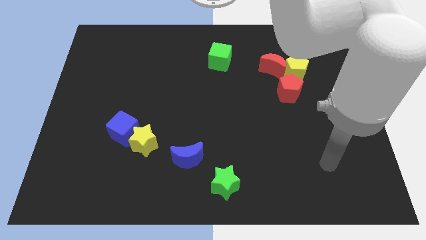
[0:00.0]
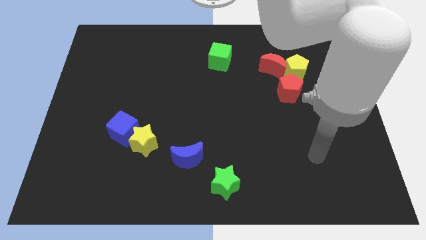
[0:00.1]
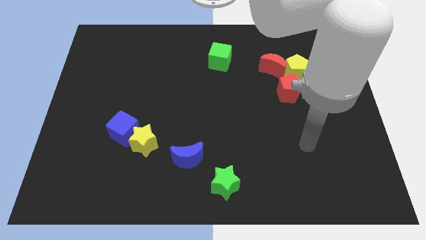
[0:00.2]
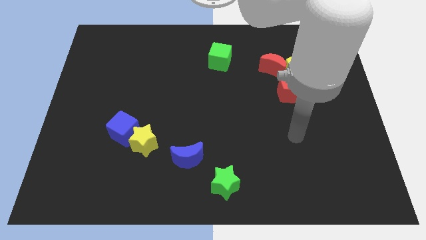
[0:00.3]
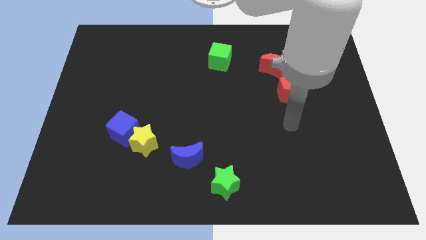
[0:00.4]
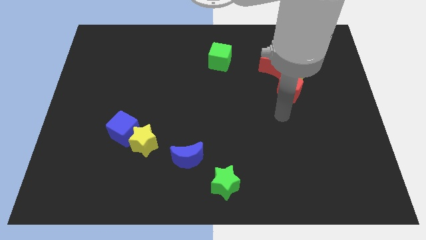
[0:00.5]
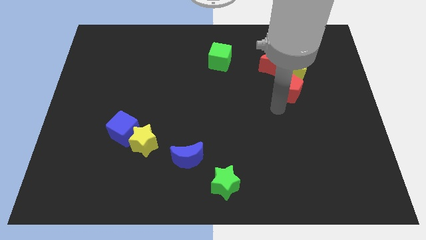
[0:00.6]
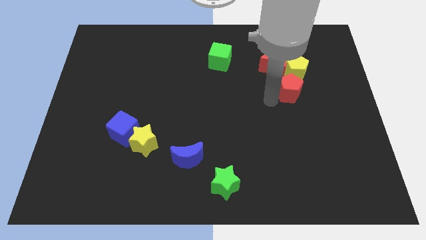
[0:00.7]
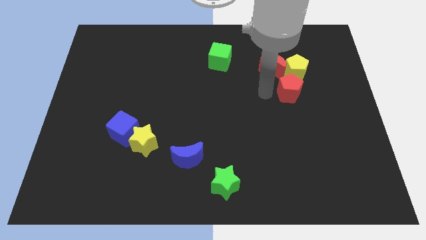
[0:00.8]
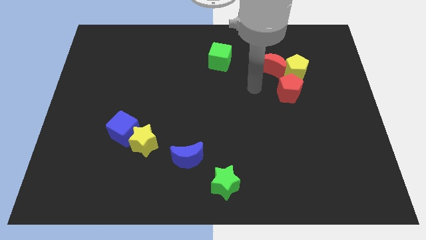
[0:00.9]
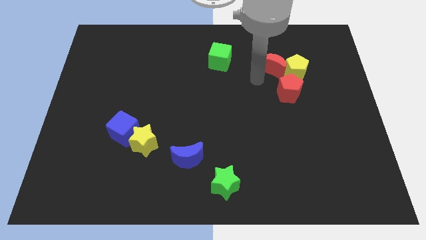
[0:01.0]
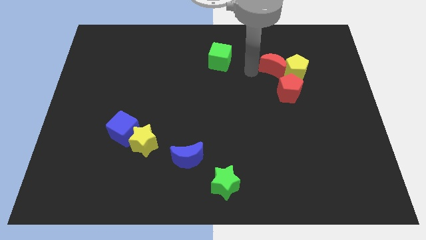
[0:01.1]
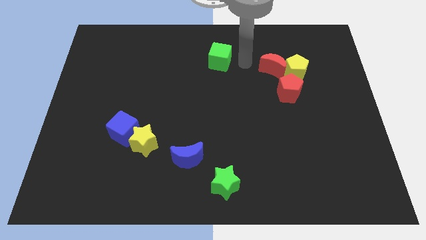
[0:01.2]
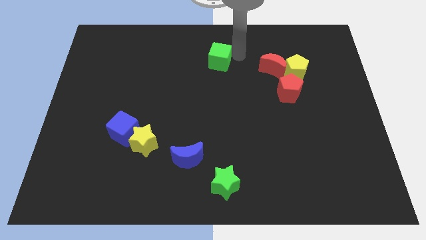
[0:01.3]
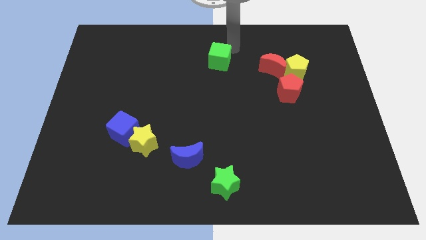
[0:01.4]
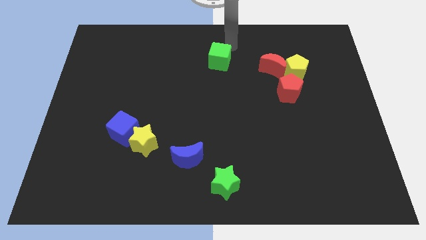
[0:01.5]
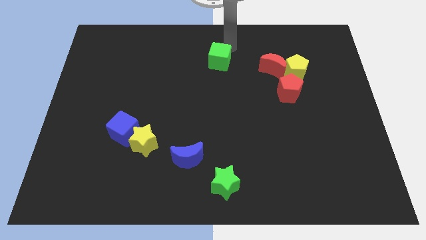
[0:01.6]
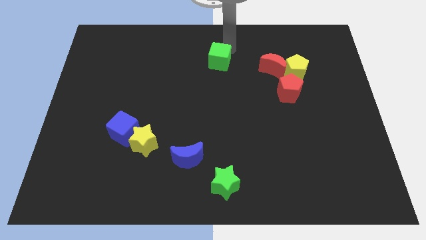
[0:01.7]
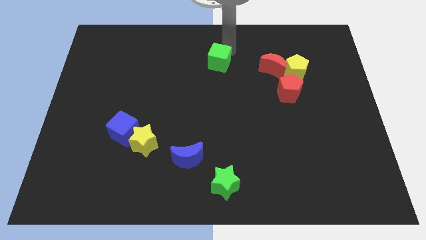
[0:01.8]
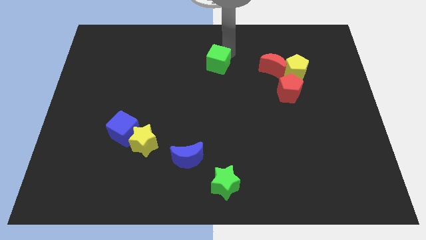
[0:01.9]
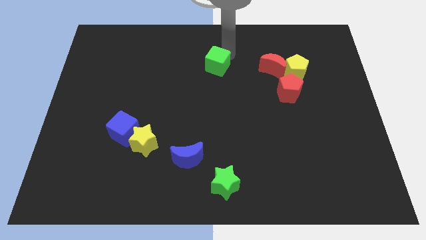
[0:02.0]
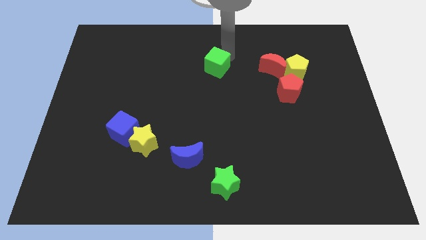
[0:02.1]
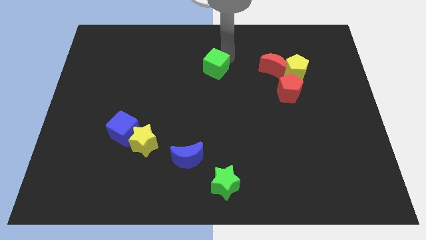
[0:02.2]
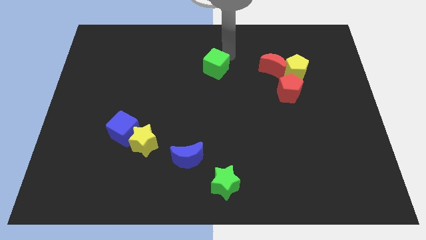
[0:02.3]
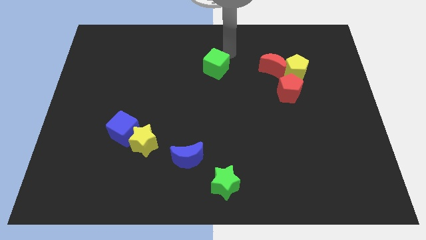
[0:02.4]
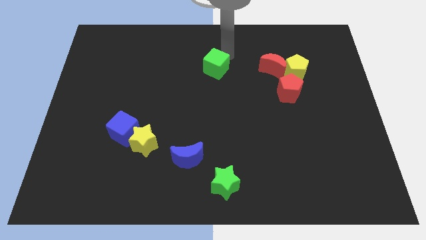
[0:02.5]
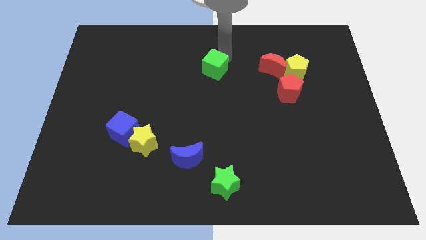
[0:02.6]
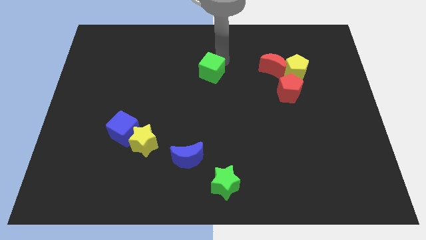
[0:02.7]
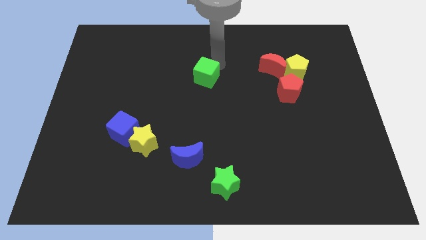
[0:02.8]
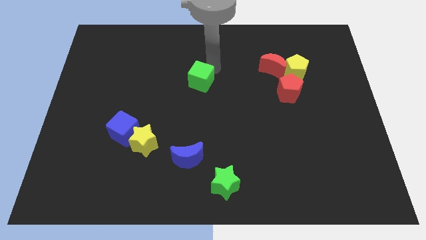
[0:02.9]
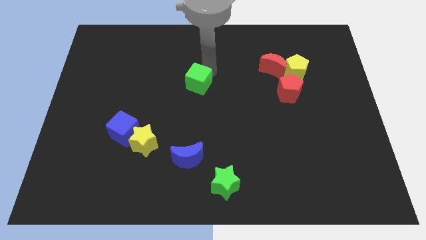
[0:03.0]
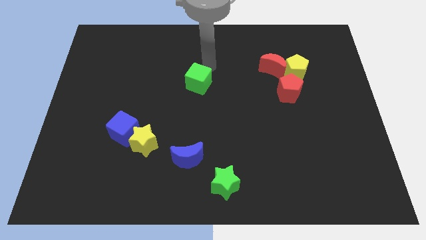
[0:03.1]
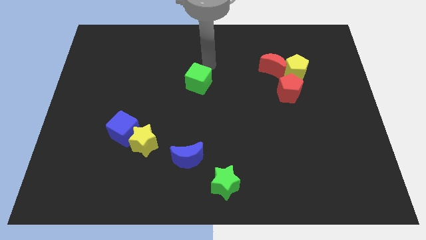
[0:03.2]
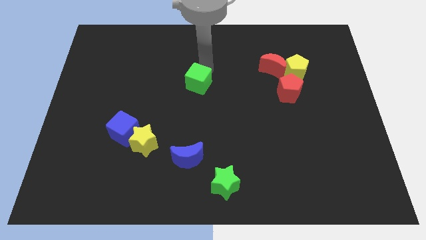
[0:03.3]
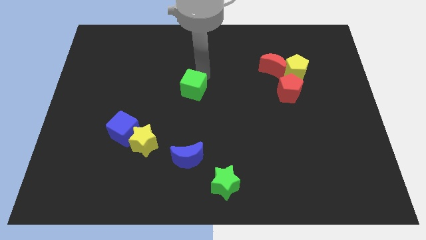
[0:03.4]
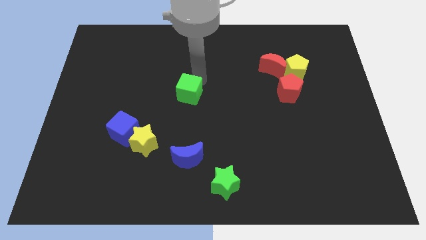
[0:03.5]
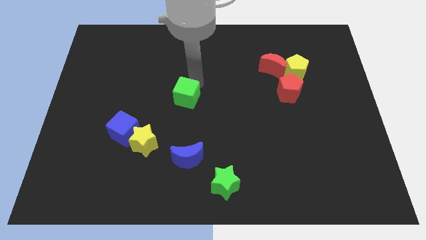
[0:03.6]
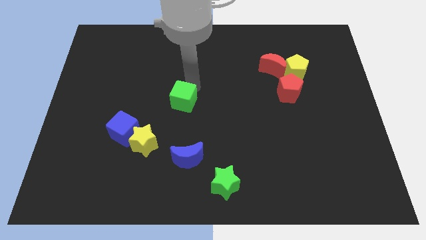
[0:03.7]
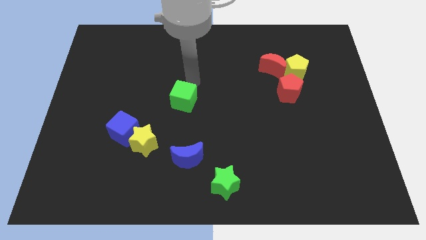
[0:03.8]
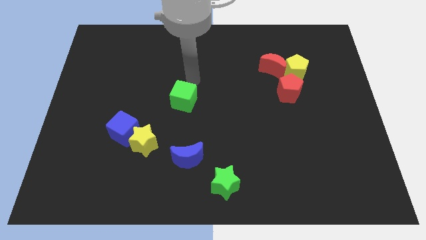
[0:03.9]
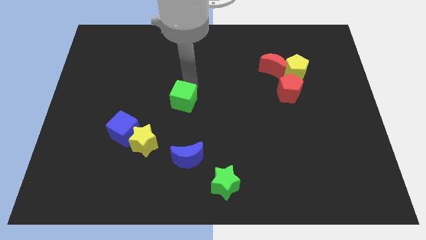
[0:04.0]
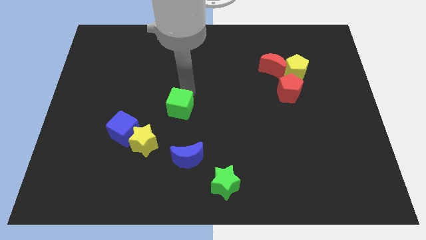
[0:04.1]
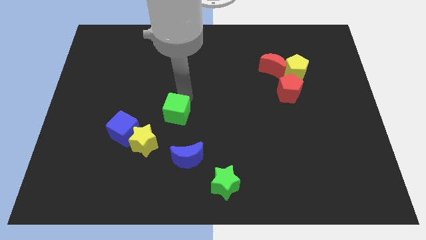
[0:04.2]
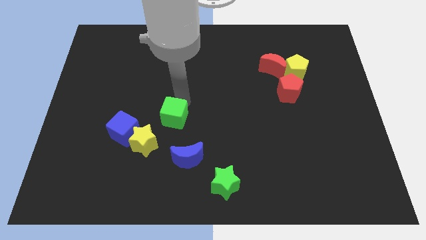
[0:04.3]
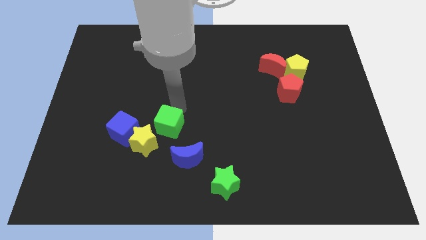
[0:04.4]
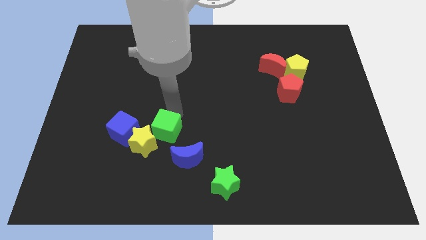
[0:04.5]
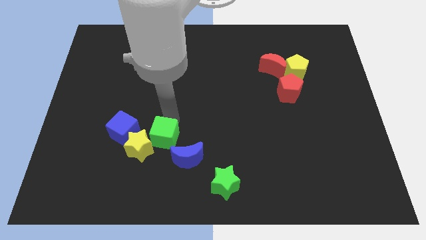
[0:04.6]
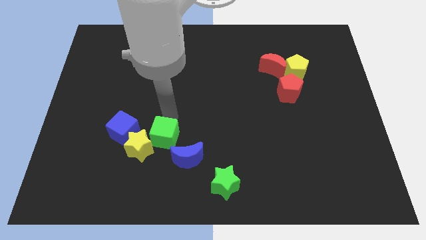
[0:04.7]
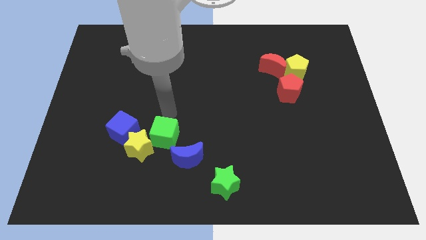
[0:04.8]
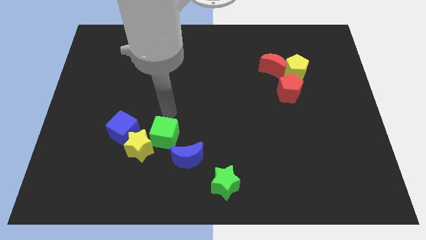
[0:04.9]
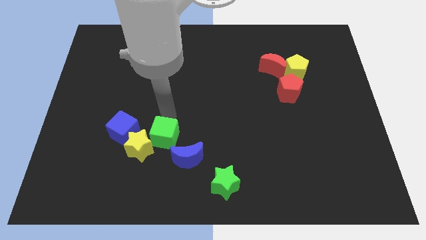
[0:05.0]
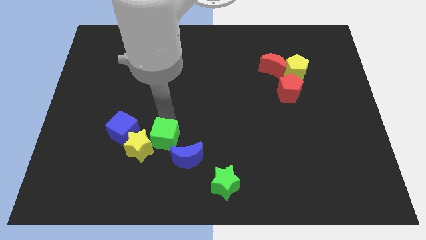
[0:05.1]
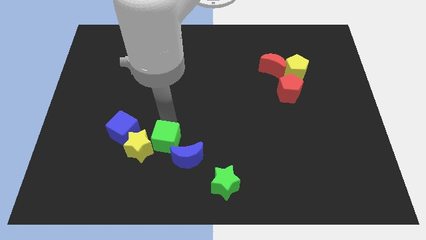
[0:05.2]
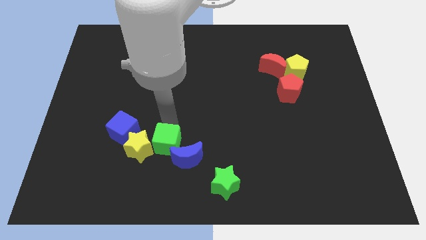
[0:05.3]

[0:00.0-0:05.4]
move the green cube to the bottom right side of the blue cube

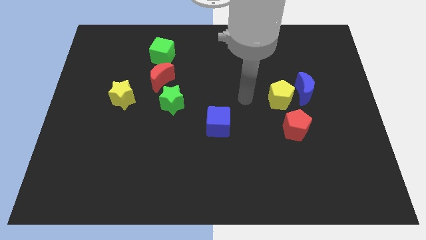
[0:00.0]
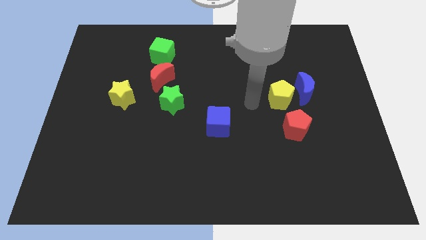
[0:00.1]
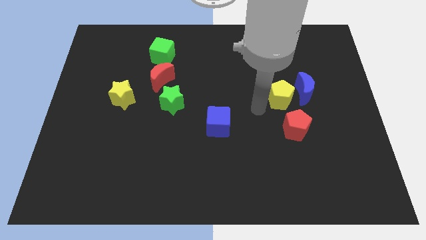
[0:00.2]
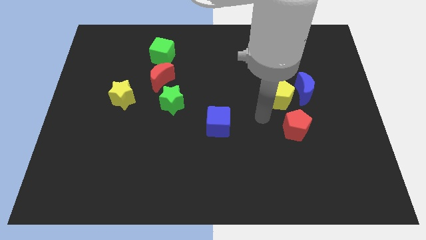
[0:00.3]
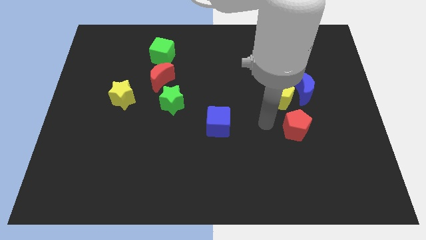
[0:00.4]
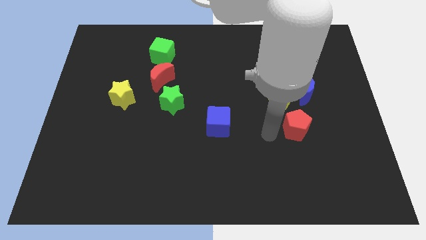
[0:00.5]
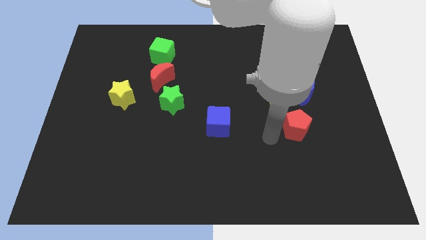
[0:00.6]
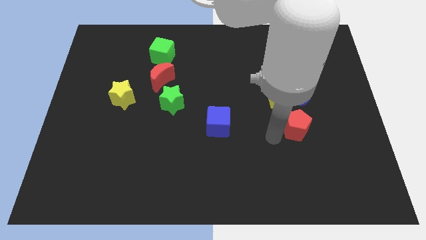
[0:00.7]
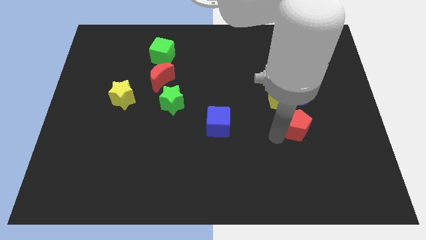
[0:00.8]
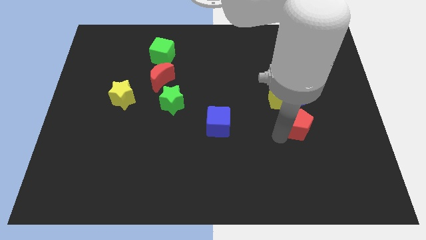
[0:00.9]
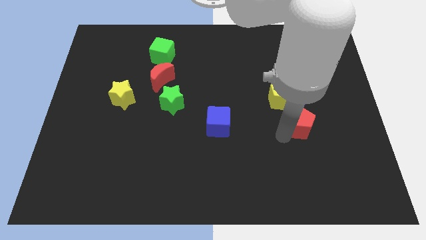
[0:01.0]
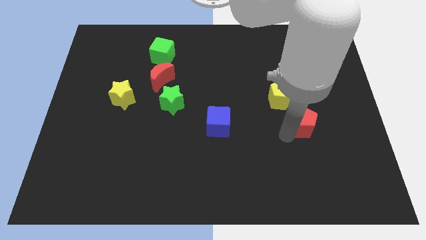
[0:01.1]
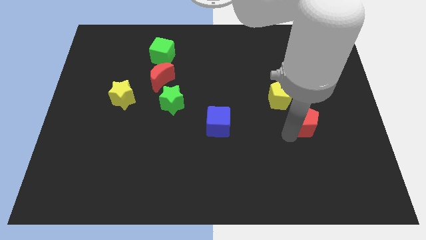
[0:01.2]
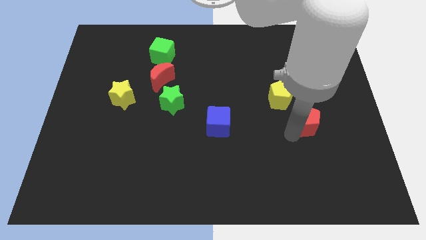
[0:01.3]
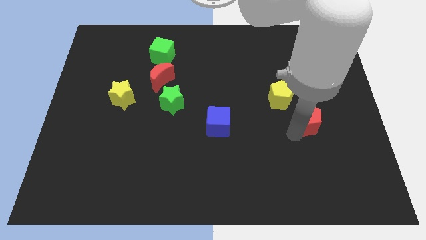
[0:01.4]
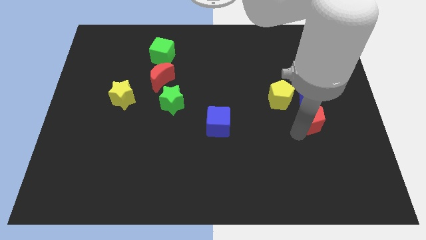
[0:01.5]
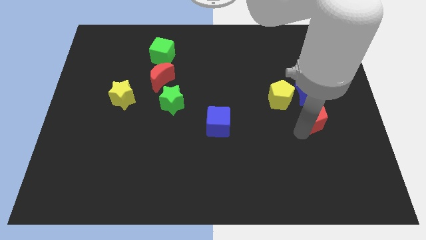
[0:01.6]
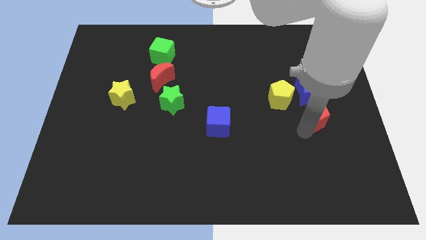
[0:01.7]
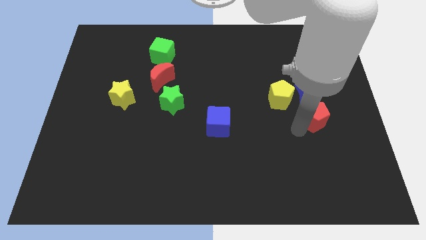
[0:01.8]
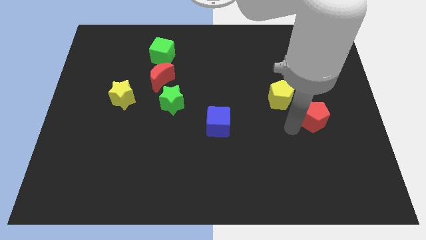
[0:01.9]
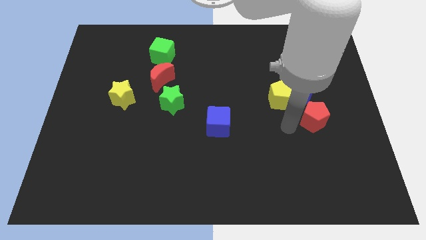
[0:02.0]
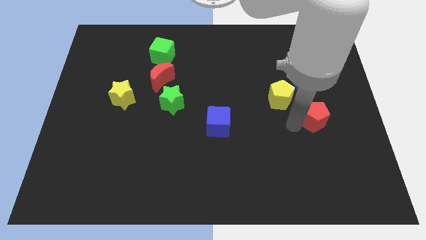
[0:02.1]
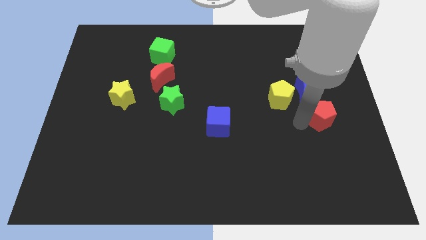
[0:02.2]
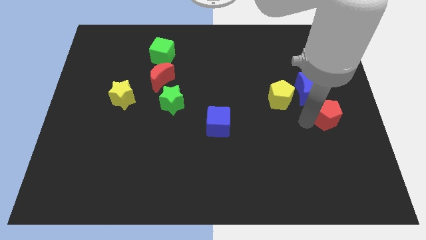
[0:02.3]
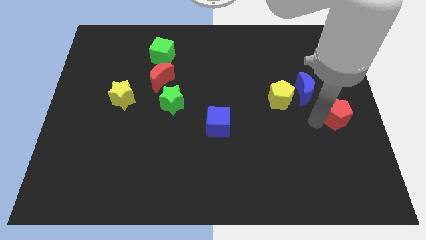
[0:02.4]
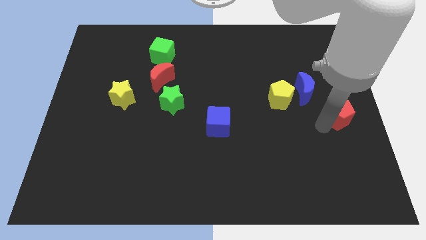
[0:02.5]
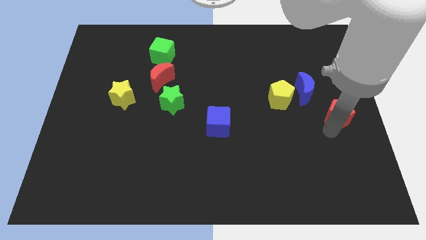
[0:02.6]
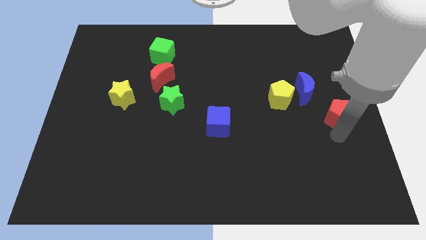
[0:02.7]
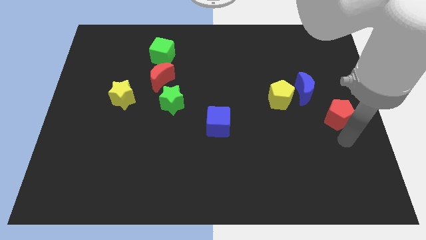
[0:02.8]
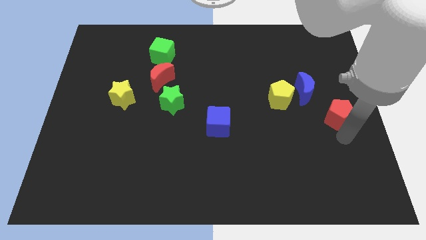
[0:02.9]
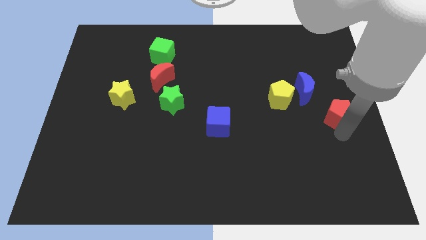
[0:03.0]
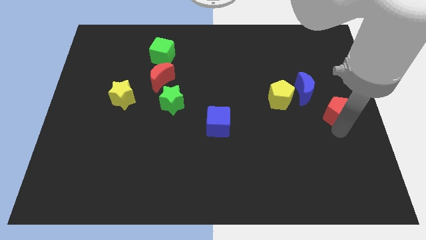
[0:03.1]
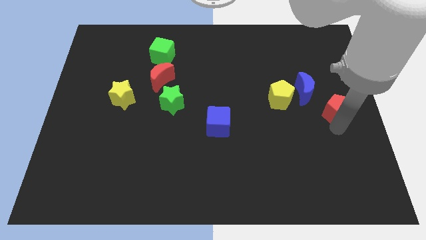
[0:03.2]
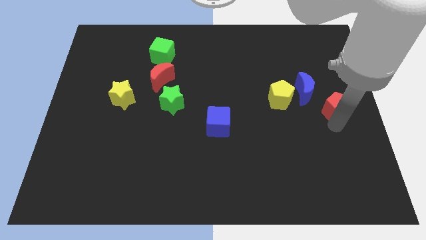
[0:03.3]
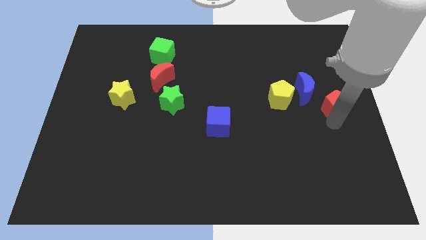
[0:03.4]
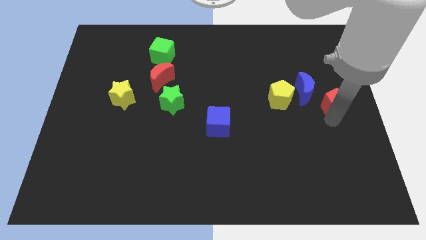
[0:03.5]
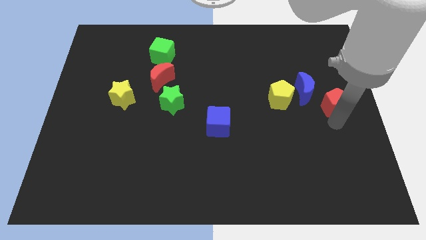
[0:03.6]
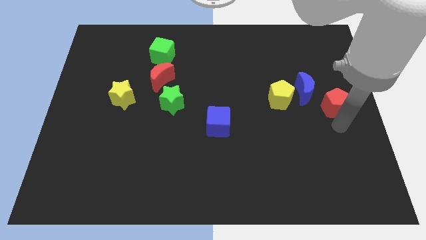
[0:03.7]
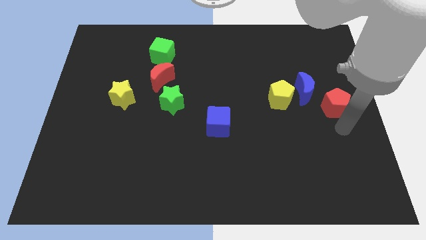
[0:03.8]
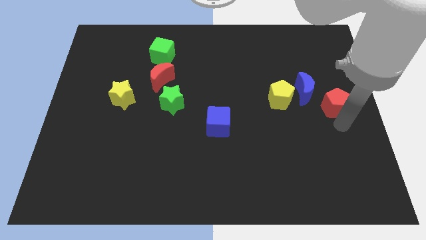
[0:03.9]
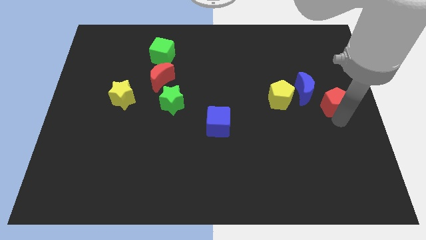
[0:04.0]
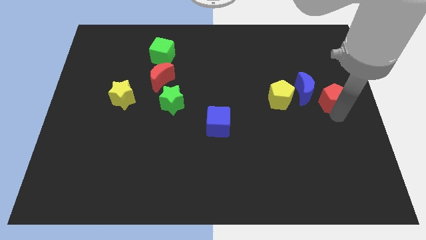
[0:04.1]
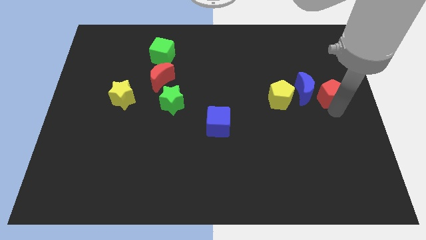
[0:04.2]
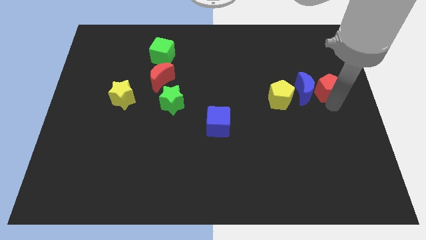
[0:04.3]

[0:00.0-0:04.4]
move the red pentagon to the top right side of the blue moon
